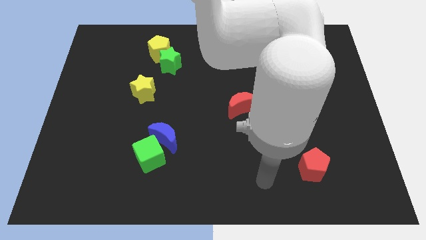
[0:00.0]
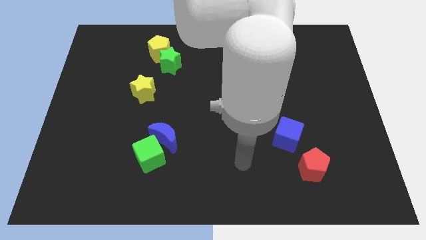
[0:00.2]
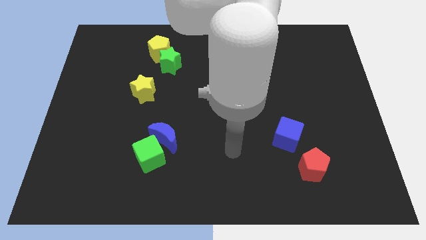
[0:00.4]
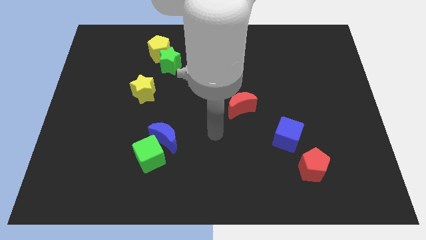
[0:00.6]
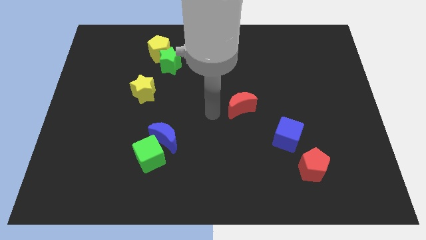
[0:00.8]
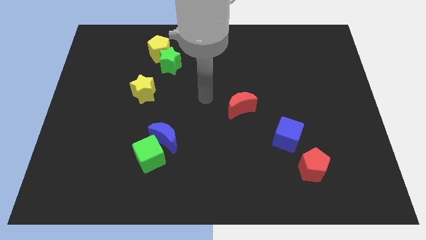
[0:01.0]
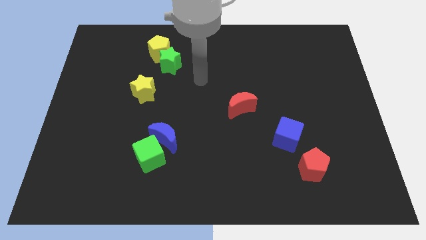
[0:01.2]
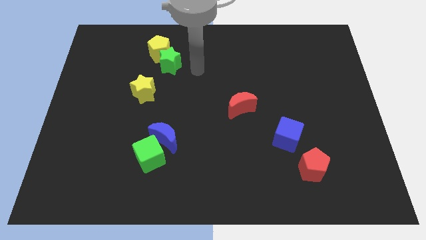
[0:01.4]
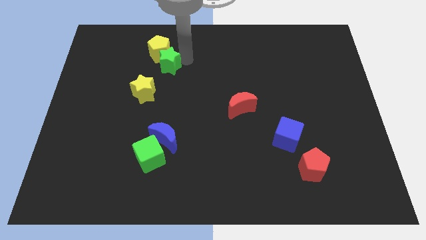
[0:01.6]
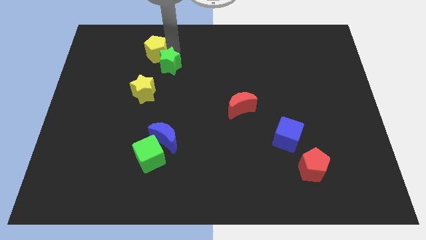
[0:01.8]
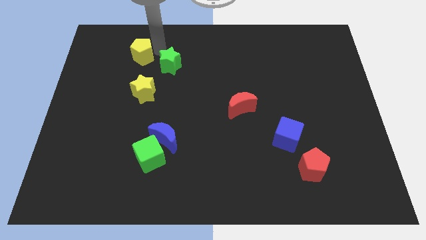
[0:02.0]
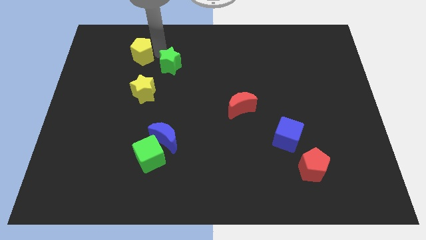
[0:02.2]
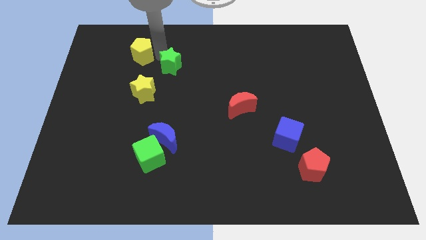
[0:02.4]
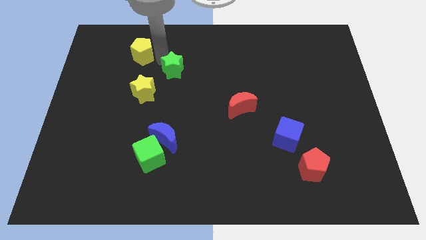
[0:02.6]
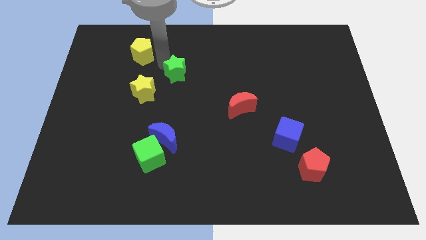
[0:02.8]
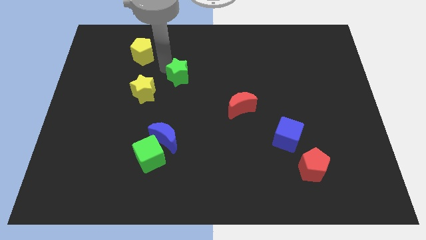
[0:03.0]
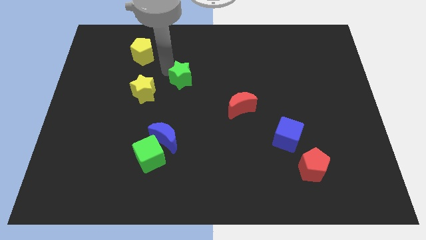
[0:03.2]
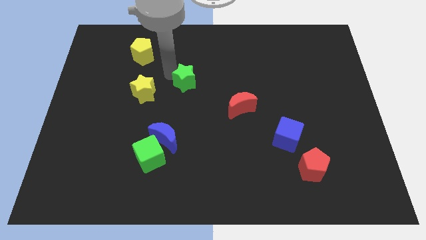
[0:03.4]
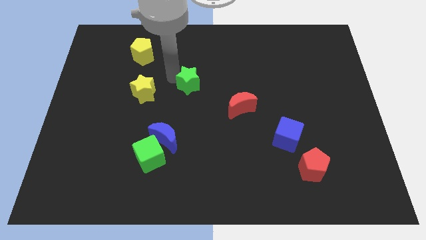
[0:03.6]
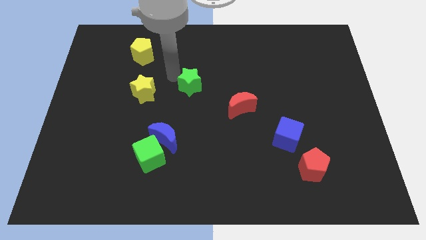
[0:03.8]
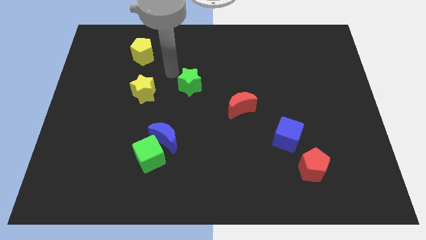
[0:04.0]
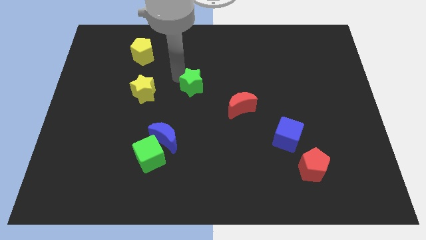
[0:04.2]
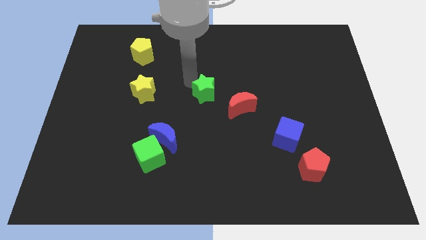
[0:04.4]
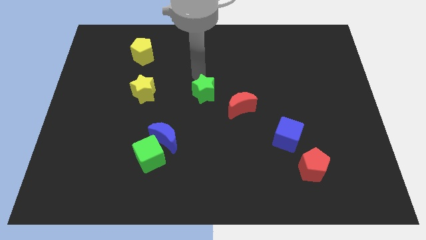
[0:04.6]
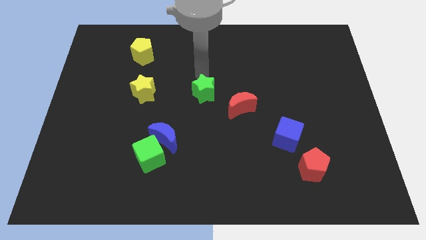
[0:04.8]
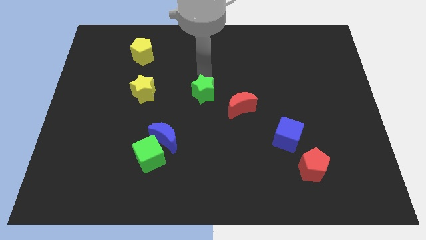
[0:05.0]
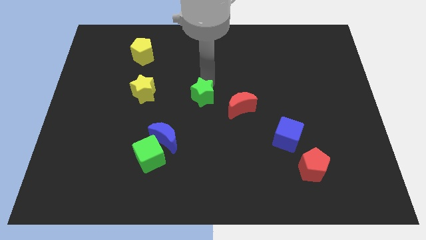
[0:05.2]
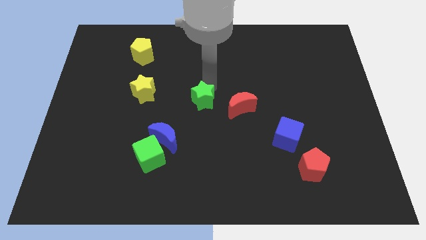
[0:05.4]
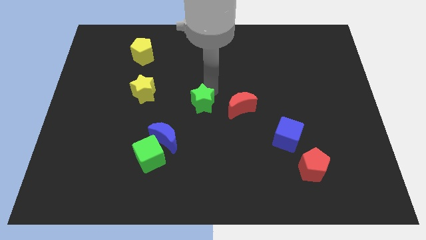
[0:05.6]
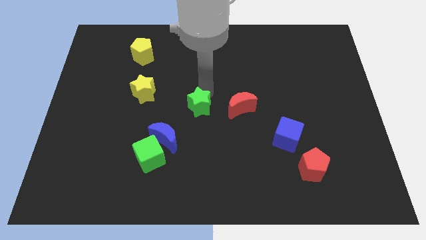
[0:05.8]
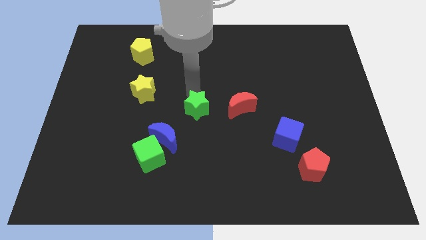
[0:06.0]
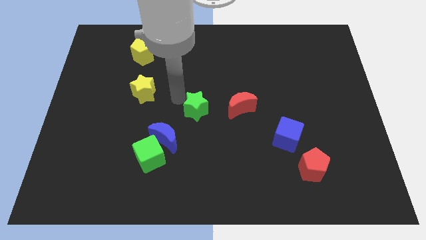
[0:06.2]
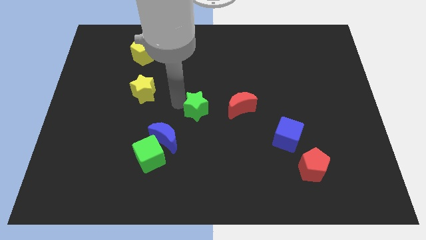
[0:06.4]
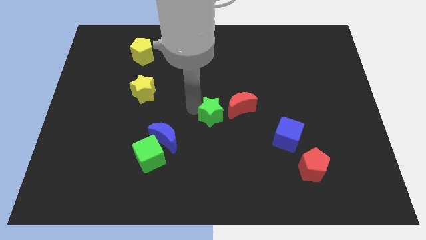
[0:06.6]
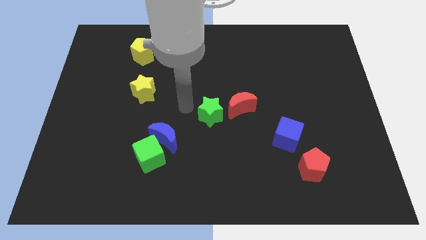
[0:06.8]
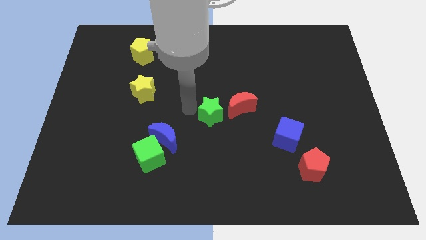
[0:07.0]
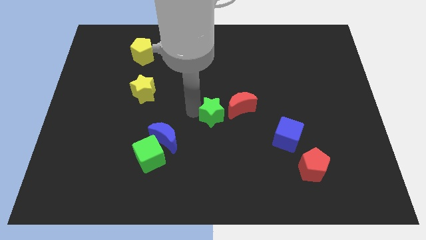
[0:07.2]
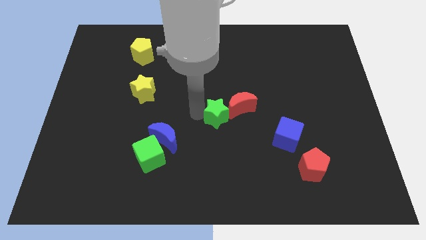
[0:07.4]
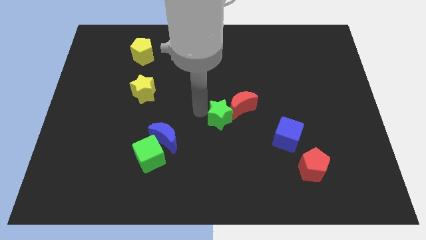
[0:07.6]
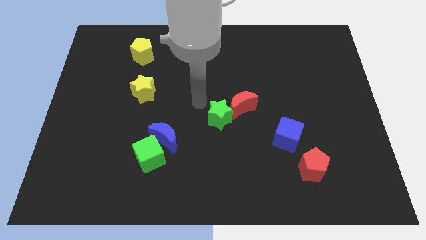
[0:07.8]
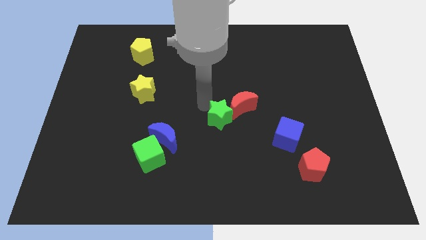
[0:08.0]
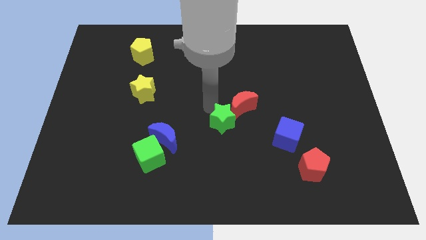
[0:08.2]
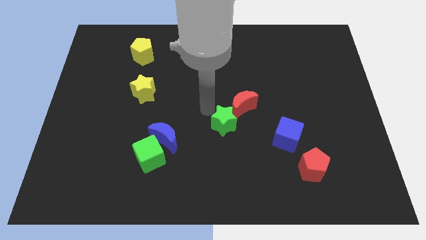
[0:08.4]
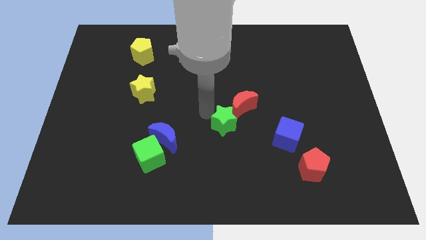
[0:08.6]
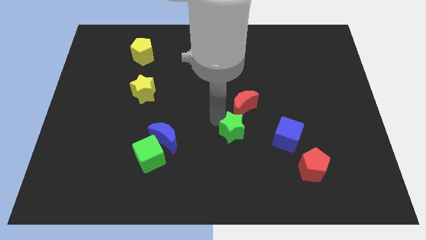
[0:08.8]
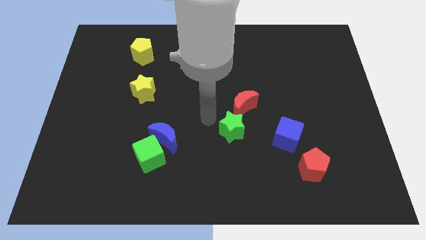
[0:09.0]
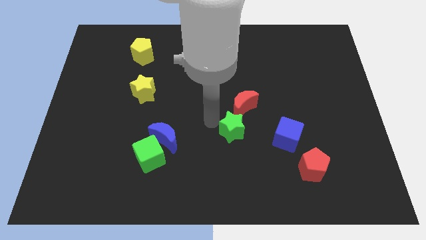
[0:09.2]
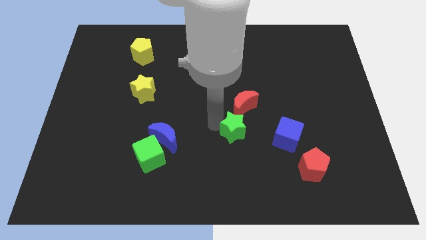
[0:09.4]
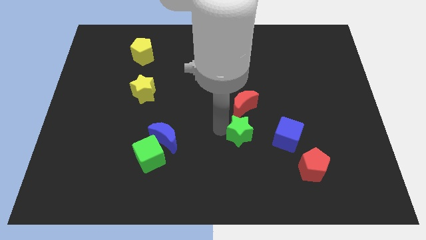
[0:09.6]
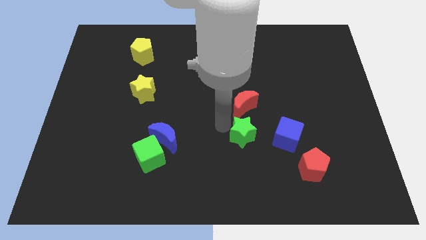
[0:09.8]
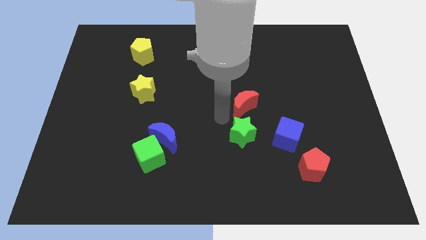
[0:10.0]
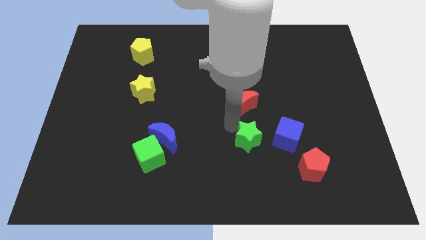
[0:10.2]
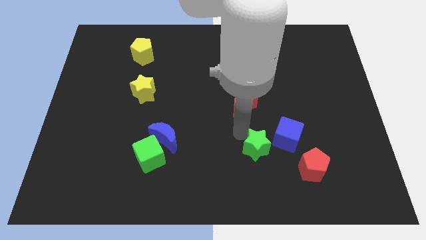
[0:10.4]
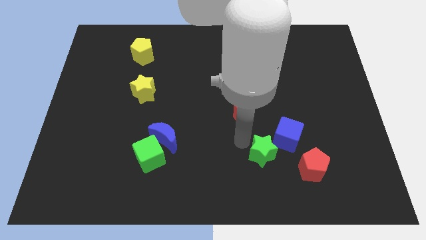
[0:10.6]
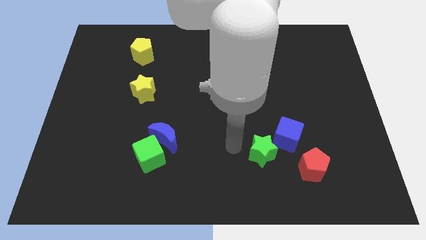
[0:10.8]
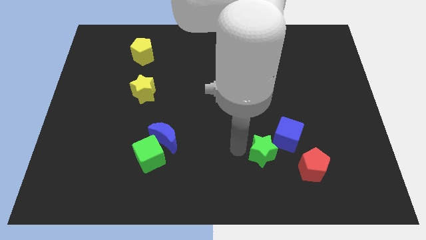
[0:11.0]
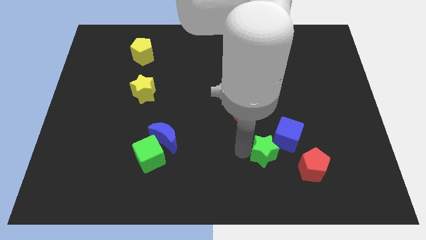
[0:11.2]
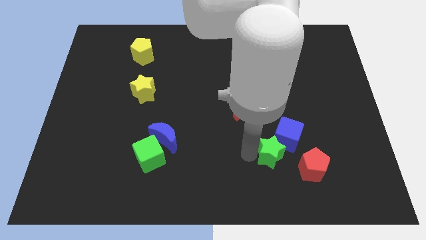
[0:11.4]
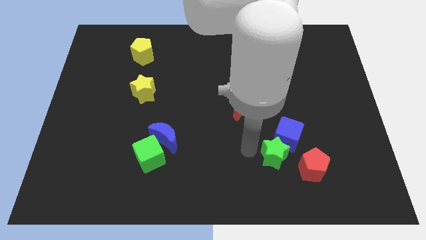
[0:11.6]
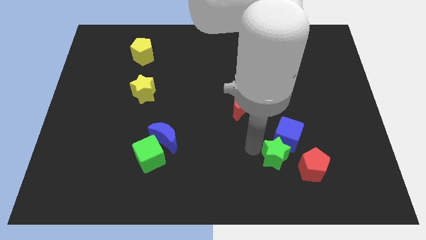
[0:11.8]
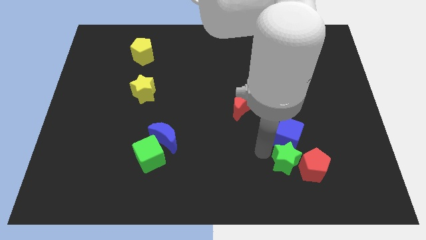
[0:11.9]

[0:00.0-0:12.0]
slide the green star towards the red pentagon

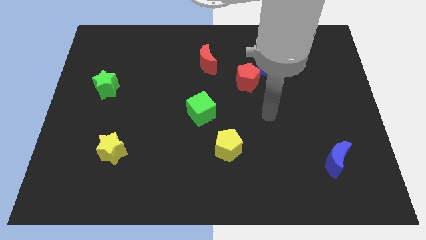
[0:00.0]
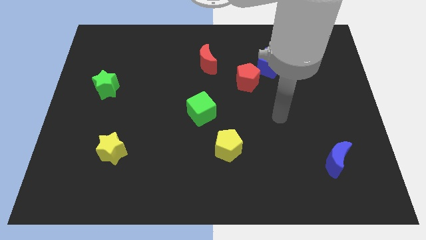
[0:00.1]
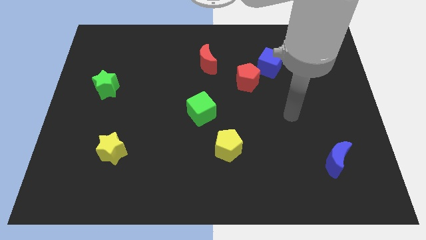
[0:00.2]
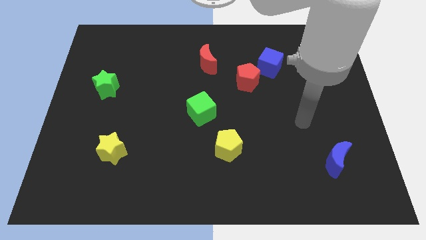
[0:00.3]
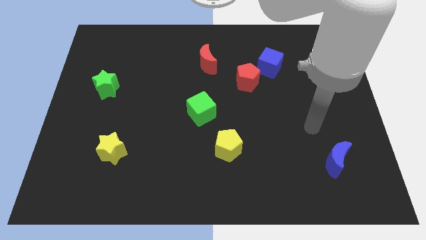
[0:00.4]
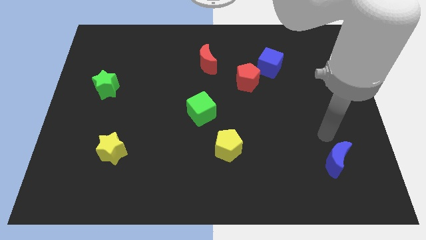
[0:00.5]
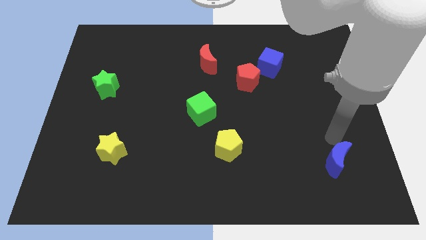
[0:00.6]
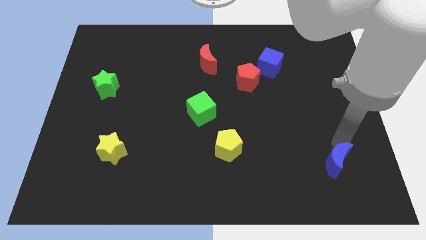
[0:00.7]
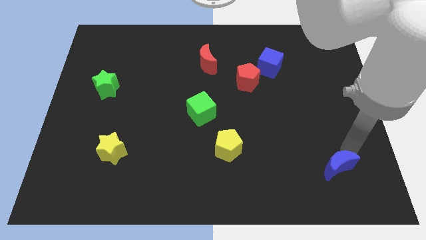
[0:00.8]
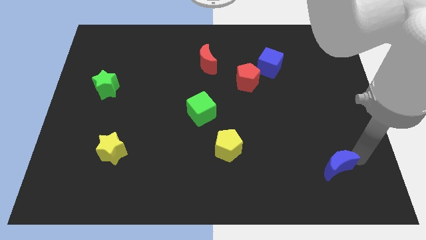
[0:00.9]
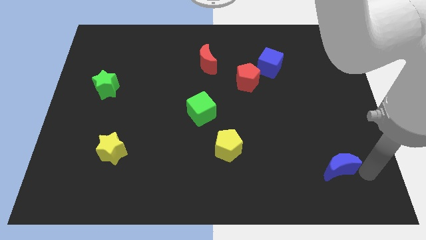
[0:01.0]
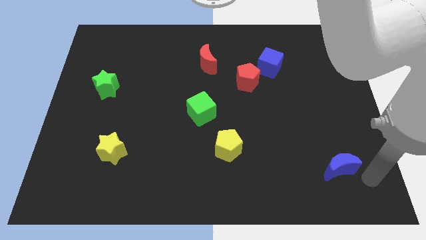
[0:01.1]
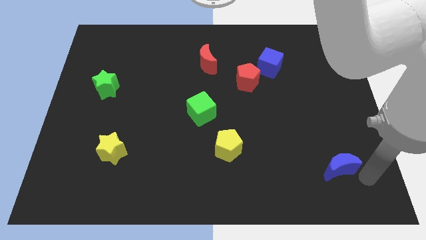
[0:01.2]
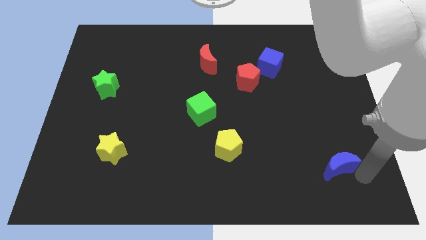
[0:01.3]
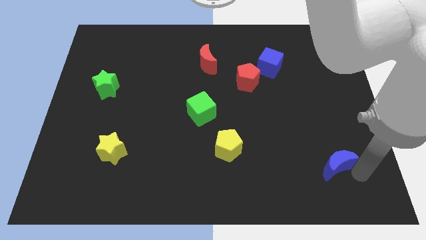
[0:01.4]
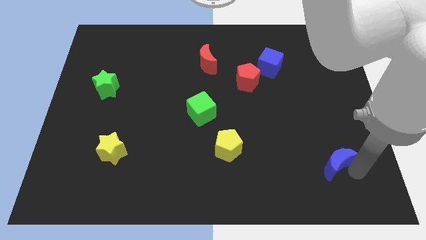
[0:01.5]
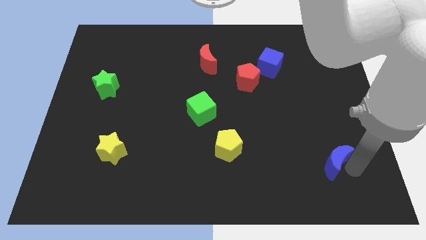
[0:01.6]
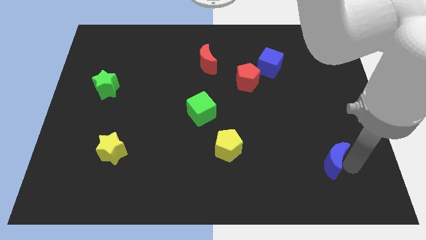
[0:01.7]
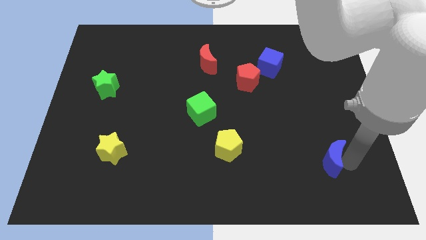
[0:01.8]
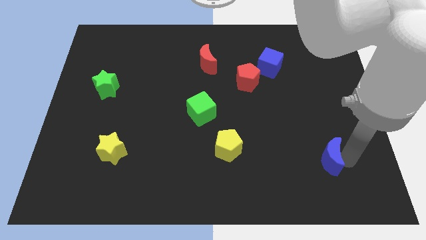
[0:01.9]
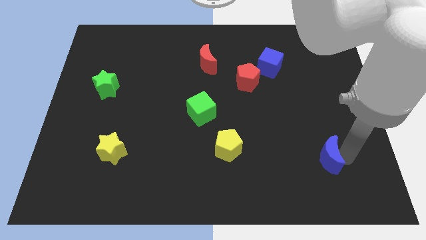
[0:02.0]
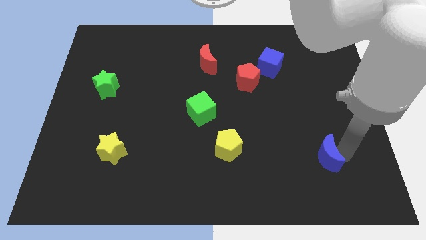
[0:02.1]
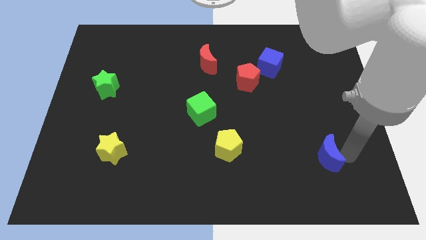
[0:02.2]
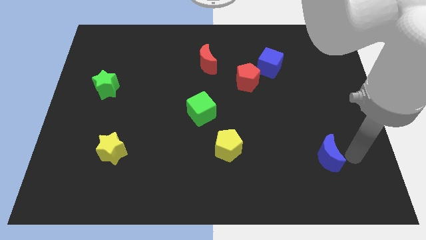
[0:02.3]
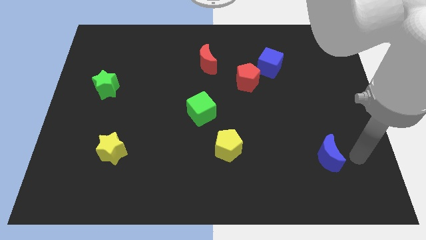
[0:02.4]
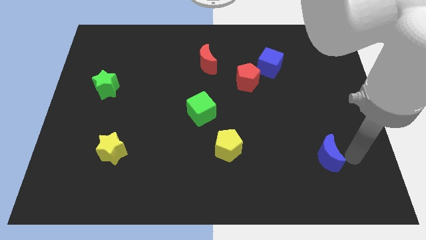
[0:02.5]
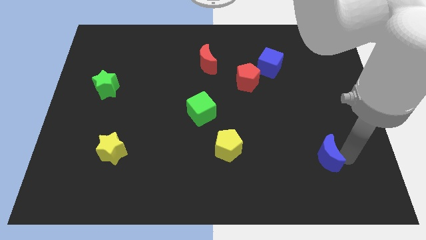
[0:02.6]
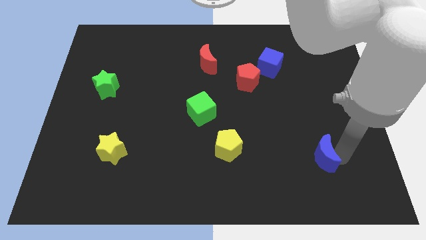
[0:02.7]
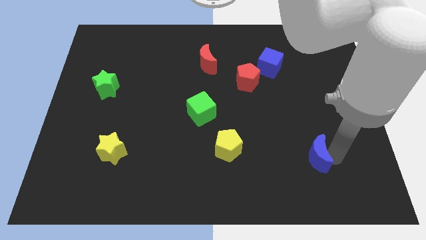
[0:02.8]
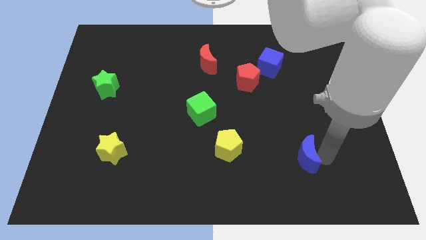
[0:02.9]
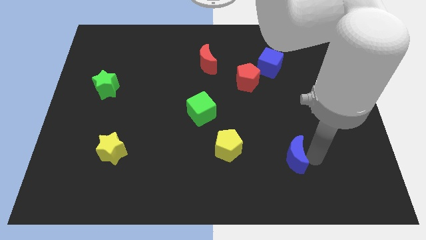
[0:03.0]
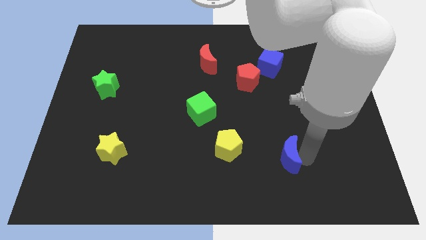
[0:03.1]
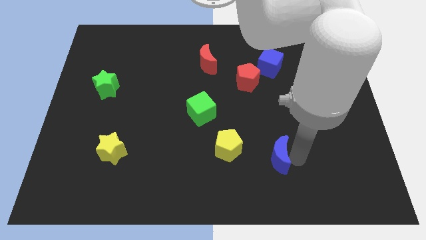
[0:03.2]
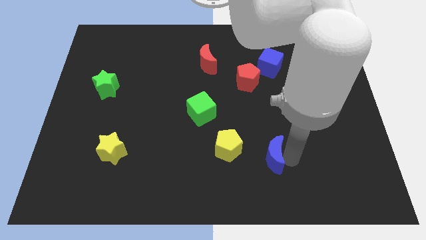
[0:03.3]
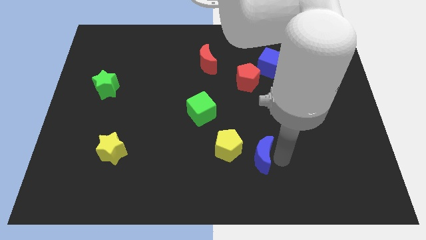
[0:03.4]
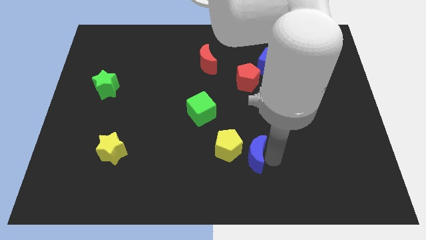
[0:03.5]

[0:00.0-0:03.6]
push the blue moon towards the yellow pentagon
